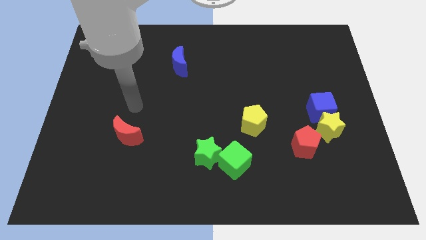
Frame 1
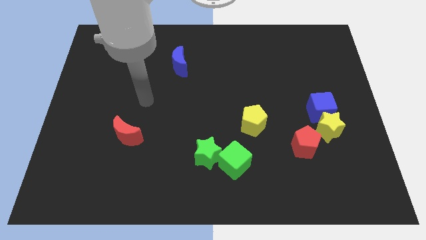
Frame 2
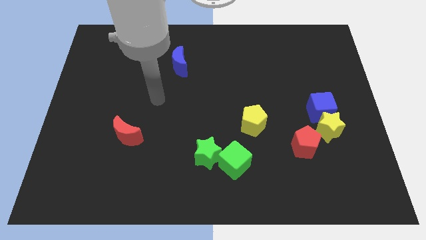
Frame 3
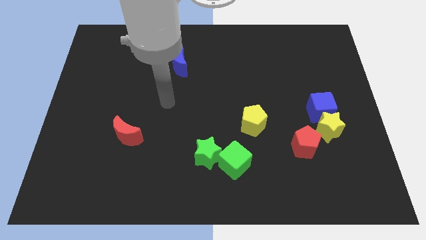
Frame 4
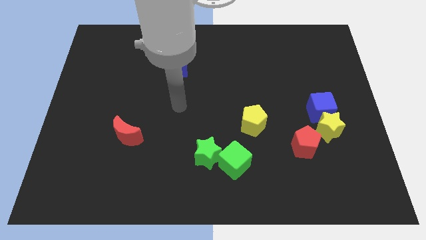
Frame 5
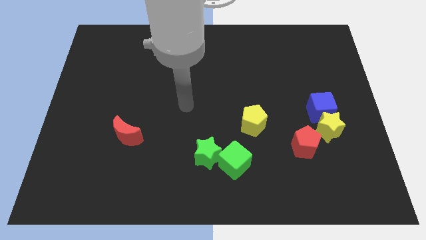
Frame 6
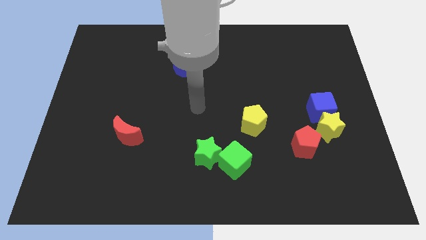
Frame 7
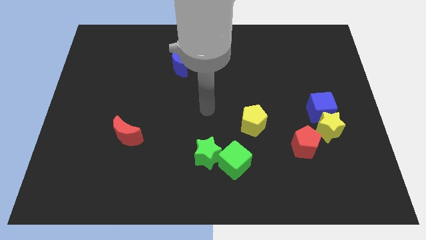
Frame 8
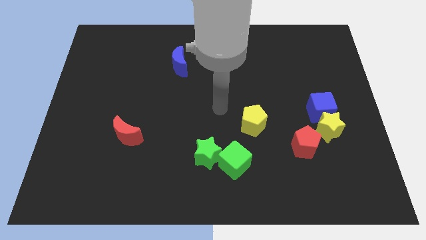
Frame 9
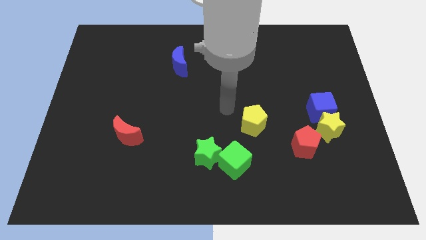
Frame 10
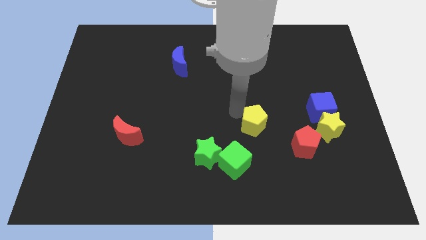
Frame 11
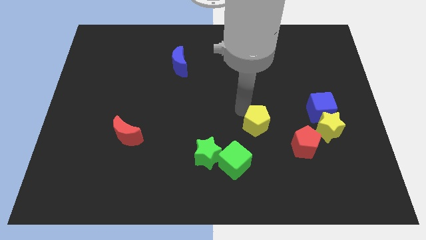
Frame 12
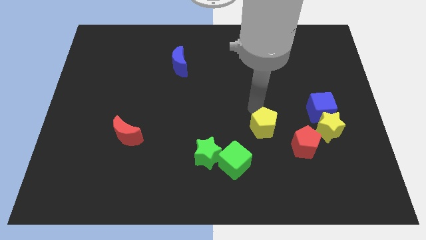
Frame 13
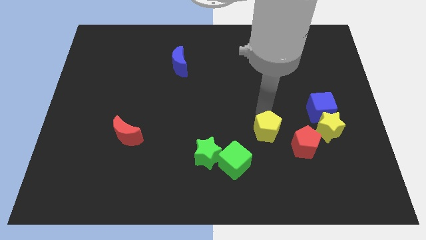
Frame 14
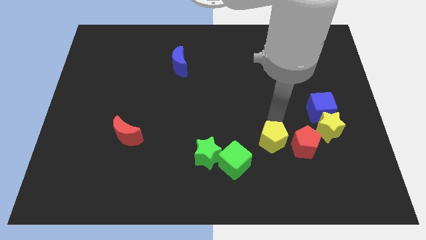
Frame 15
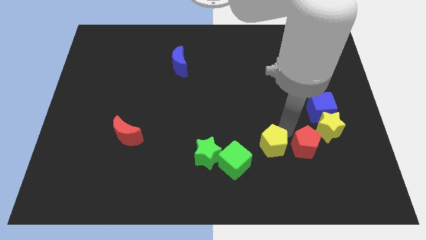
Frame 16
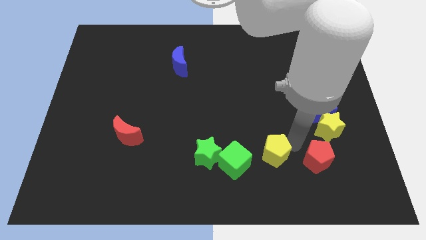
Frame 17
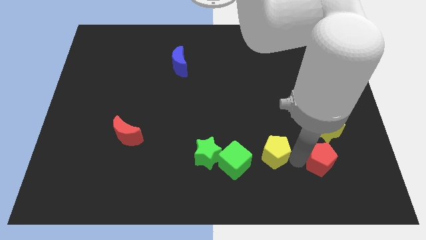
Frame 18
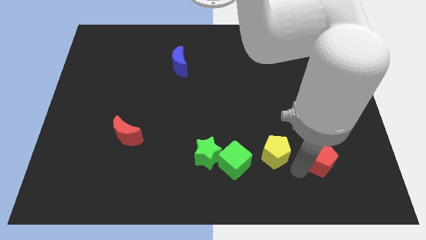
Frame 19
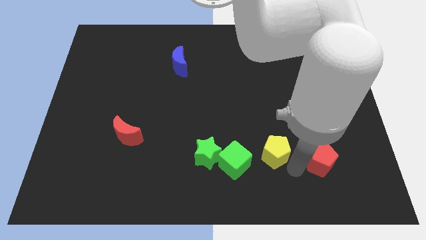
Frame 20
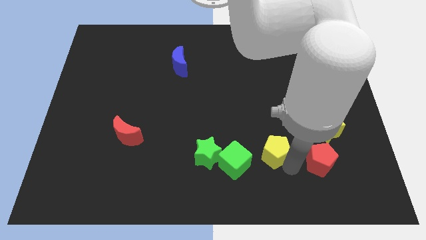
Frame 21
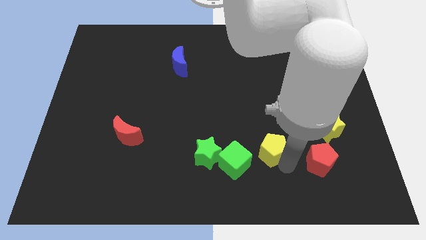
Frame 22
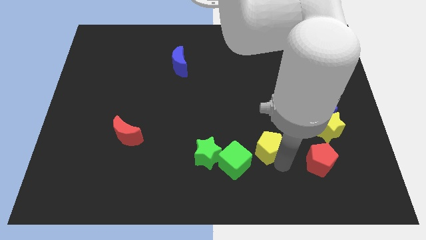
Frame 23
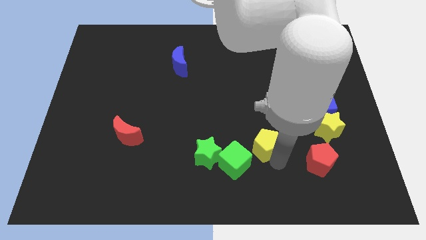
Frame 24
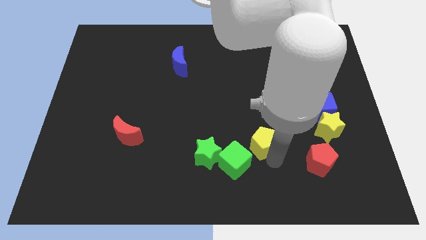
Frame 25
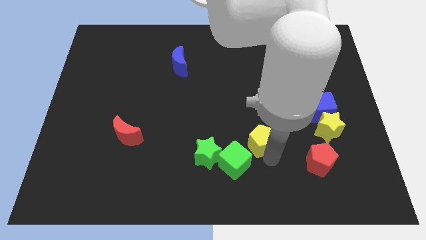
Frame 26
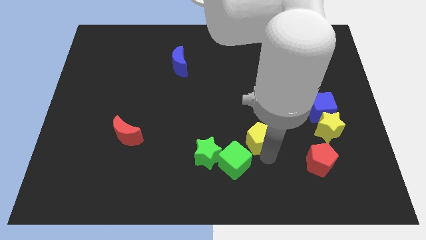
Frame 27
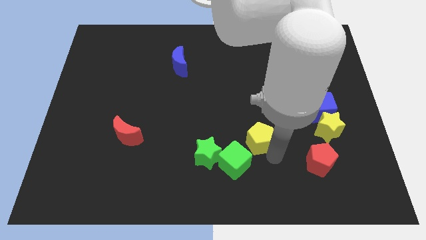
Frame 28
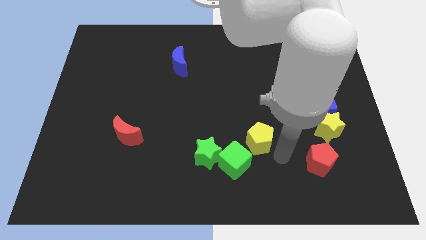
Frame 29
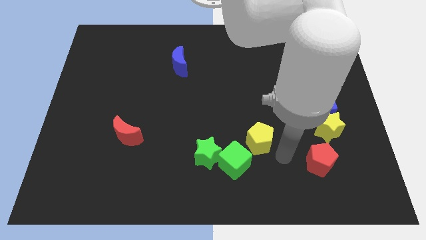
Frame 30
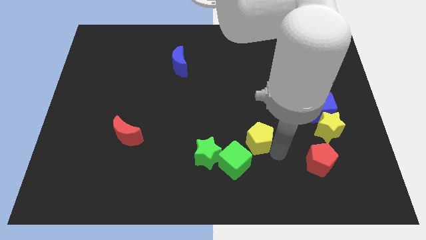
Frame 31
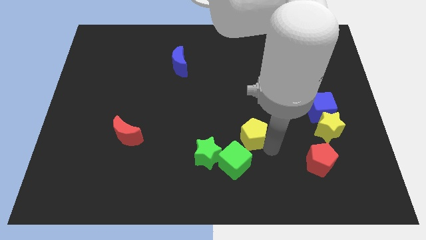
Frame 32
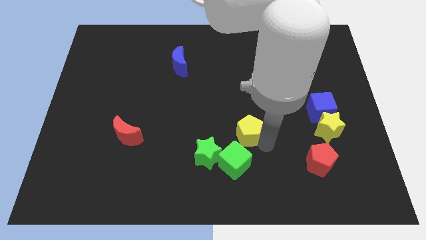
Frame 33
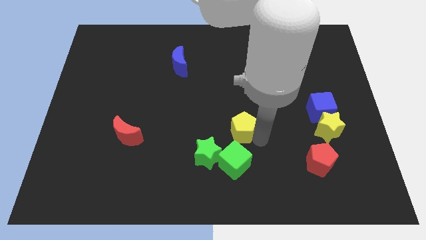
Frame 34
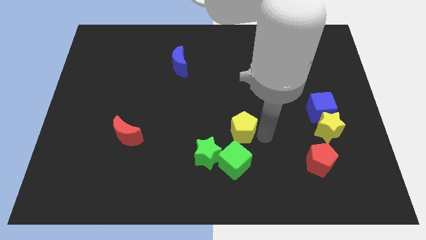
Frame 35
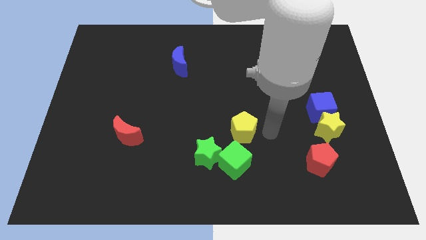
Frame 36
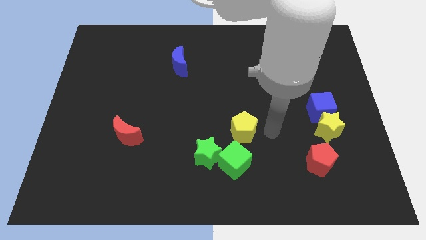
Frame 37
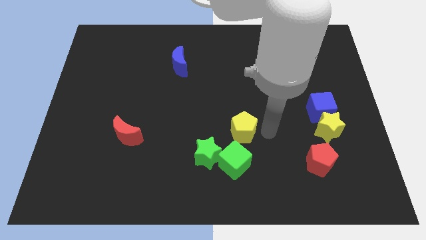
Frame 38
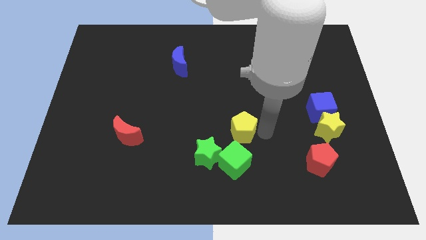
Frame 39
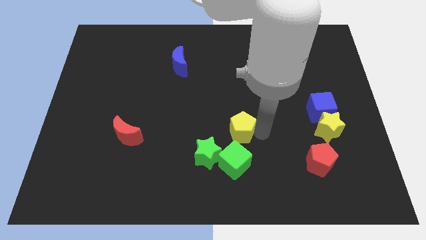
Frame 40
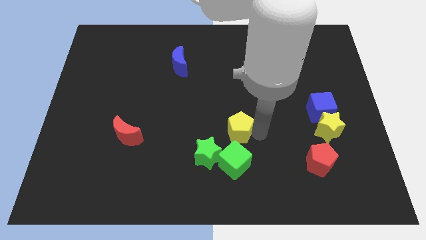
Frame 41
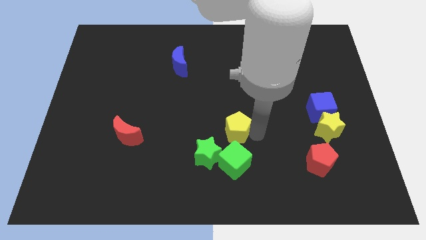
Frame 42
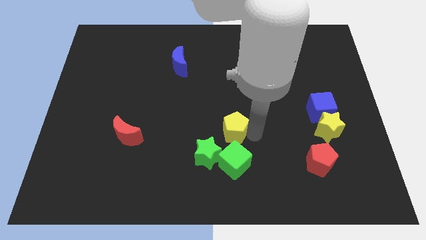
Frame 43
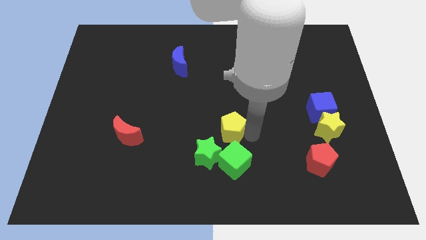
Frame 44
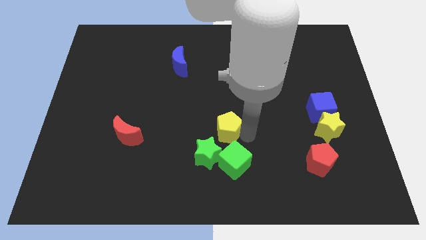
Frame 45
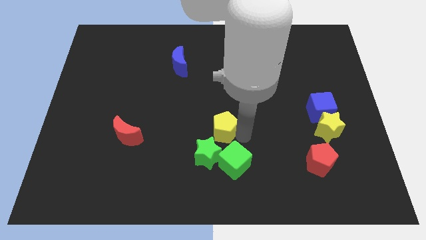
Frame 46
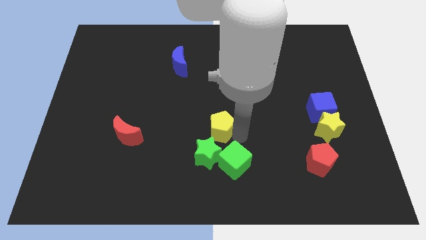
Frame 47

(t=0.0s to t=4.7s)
slide the yellow pentagon to the left a bit

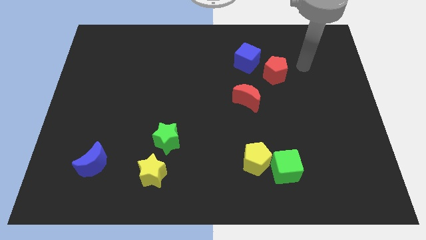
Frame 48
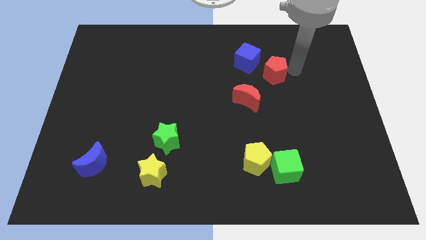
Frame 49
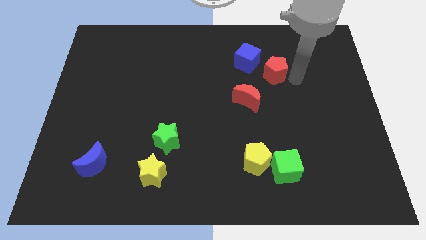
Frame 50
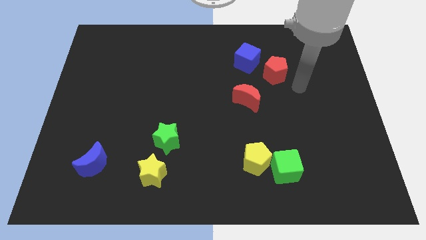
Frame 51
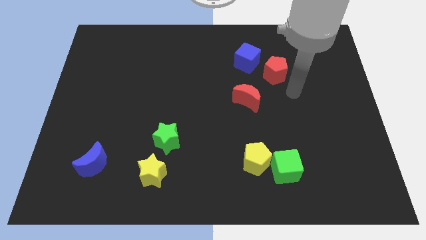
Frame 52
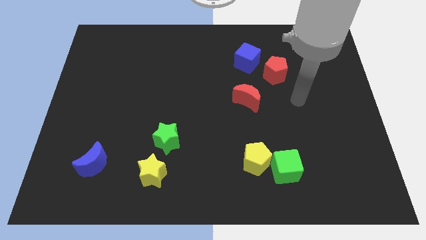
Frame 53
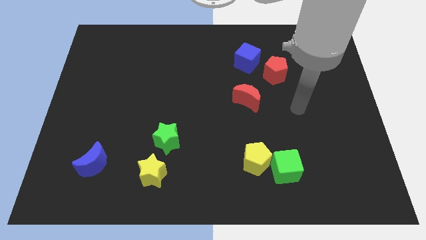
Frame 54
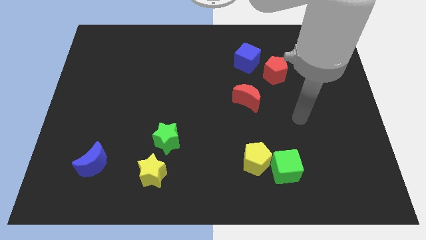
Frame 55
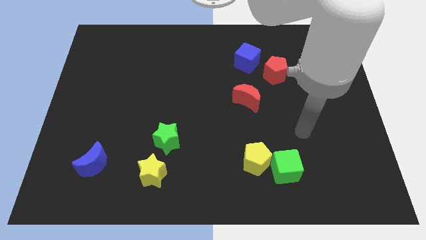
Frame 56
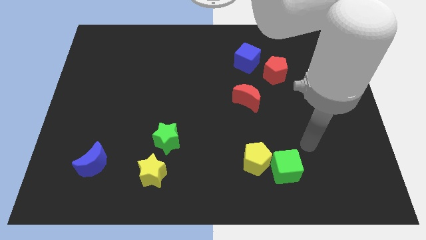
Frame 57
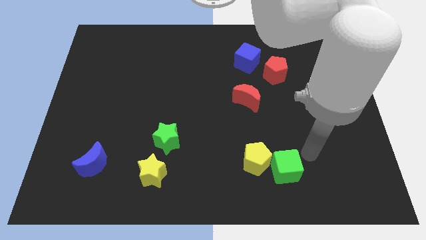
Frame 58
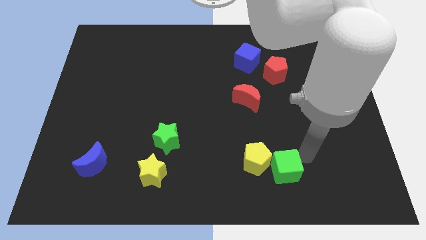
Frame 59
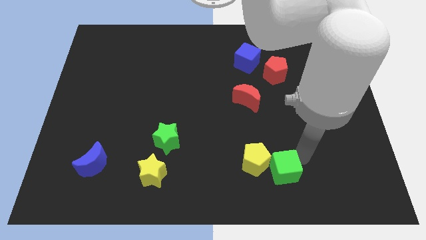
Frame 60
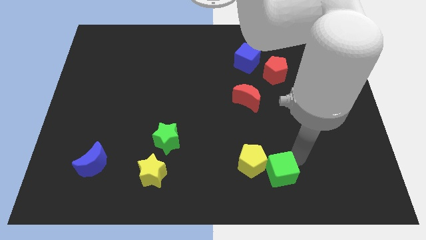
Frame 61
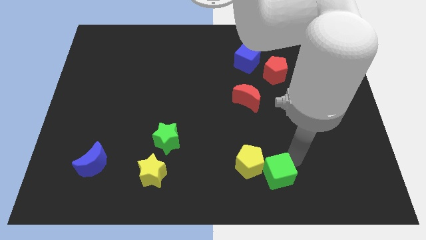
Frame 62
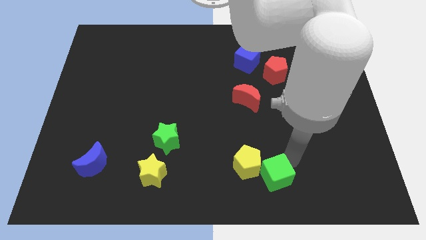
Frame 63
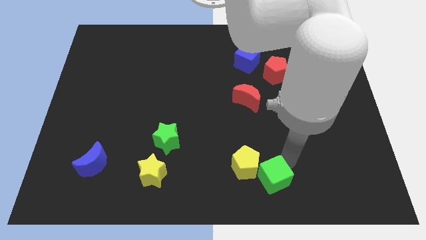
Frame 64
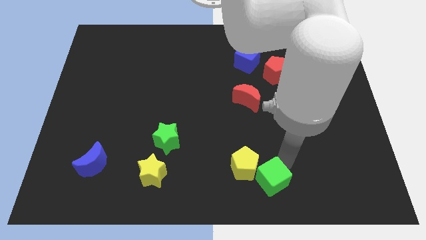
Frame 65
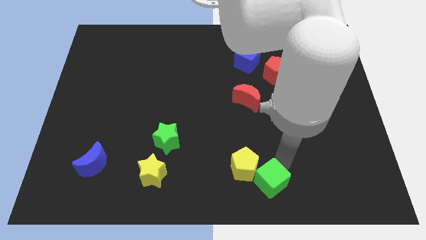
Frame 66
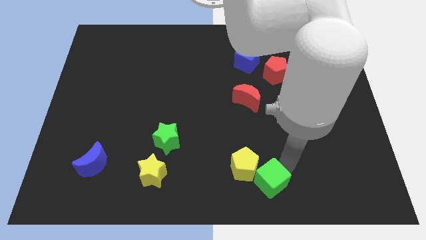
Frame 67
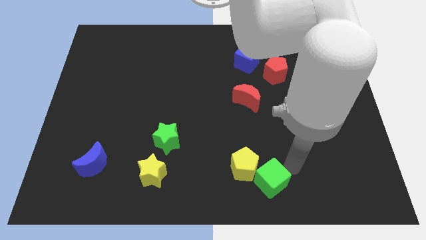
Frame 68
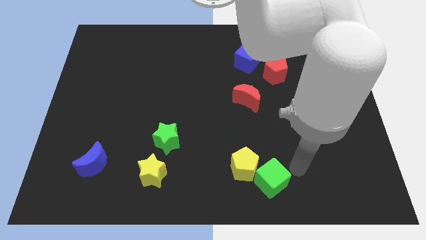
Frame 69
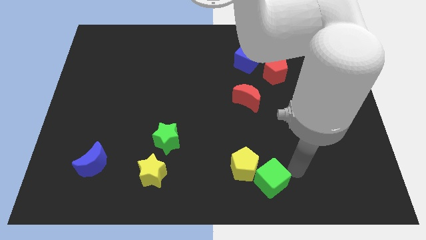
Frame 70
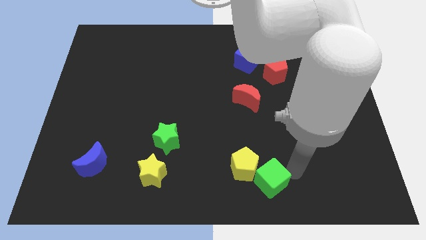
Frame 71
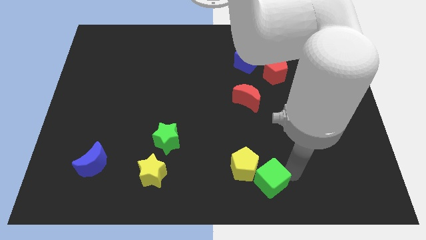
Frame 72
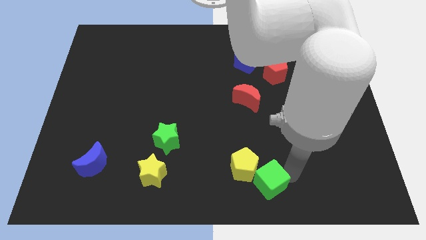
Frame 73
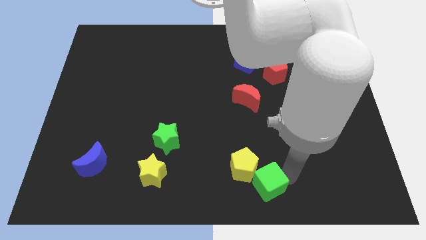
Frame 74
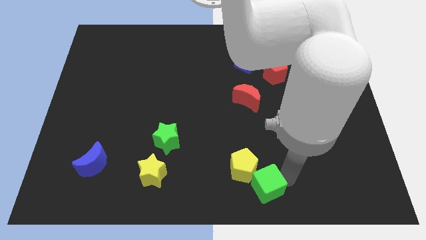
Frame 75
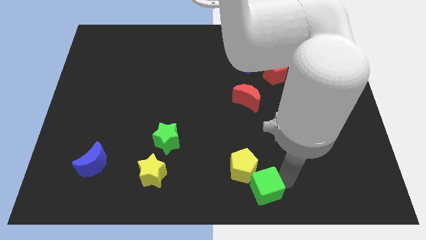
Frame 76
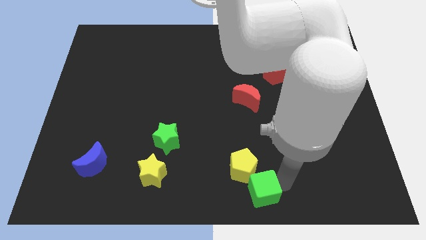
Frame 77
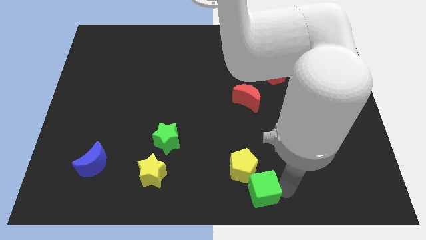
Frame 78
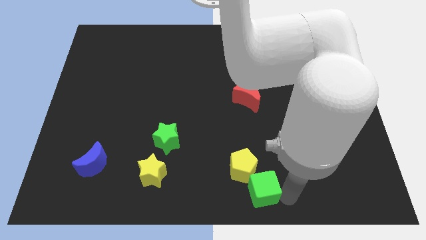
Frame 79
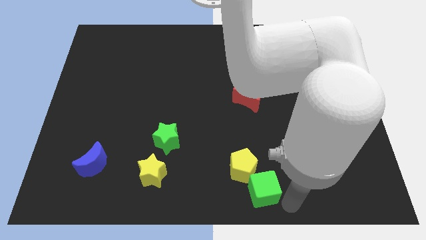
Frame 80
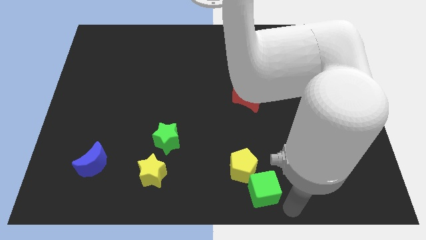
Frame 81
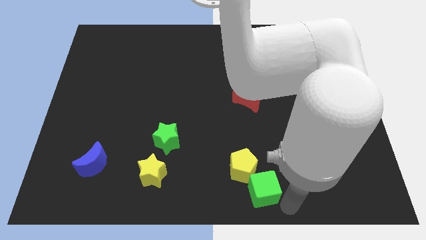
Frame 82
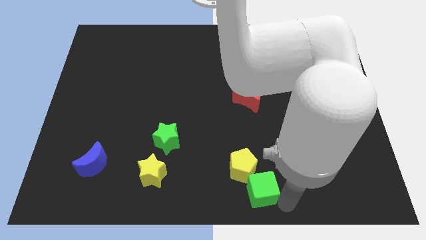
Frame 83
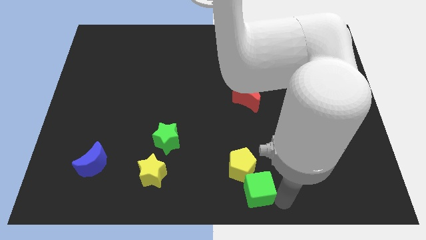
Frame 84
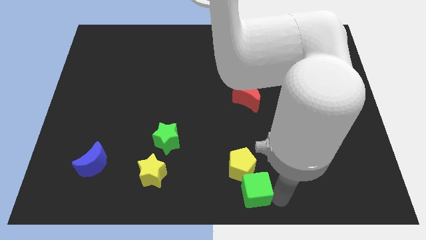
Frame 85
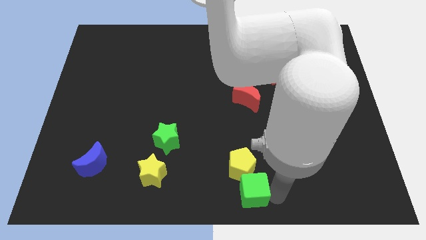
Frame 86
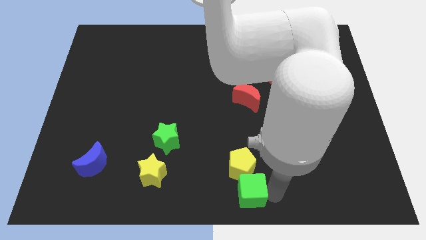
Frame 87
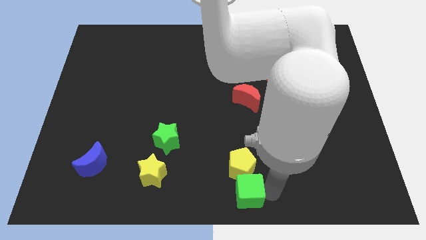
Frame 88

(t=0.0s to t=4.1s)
push the green cube a little bit to the left
